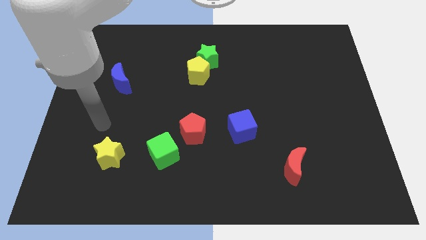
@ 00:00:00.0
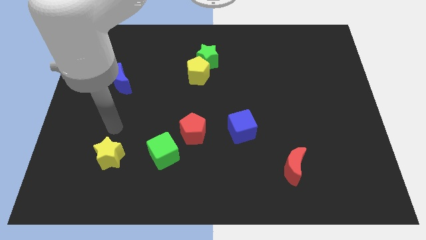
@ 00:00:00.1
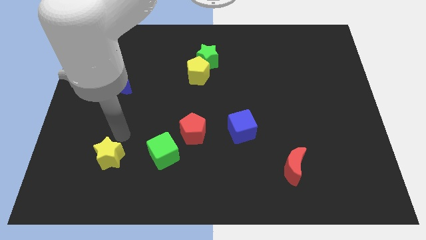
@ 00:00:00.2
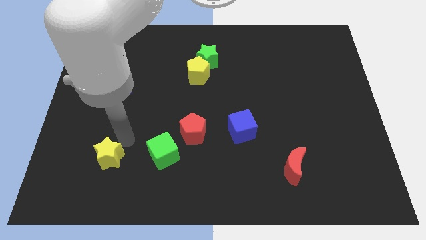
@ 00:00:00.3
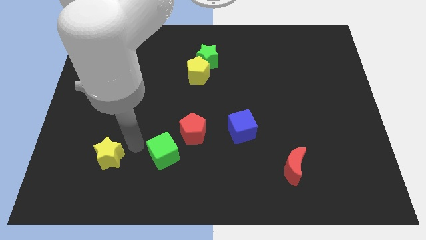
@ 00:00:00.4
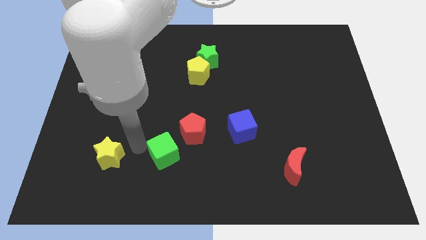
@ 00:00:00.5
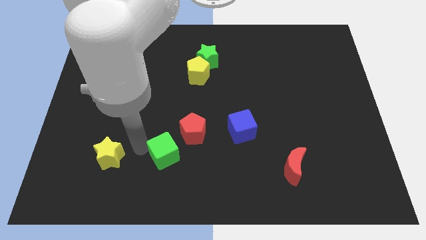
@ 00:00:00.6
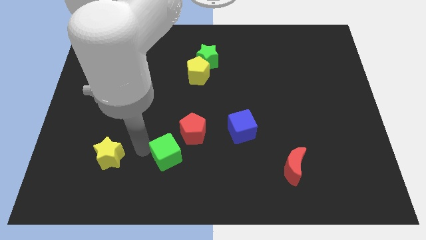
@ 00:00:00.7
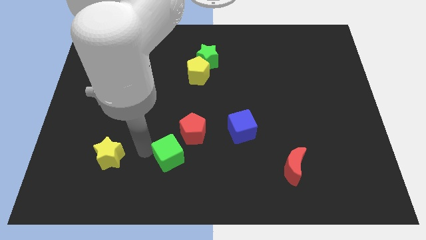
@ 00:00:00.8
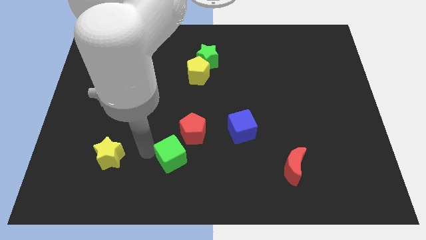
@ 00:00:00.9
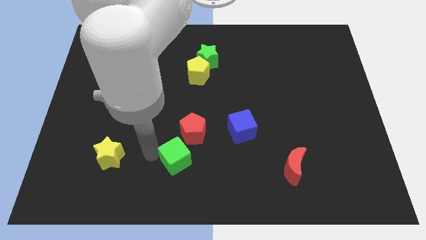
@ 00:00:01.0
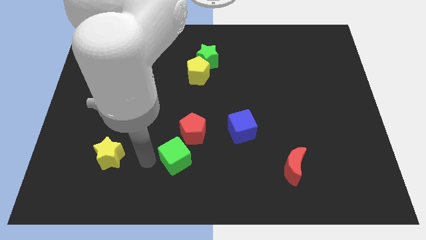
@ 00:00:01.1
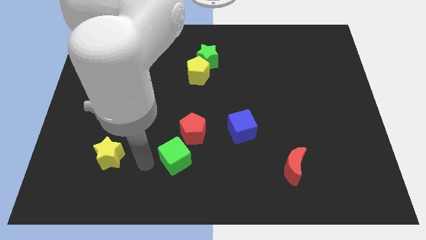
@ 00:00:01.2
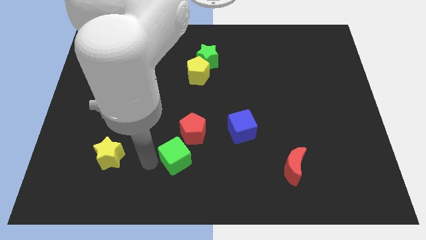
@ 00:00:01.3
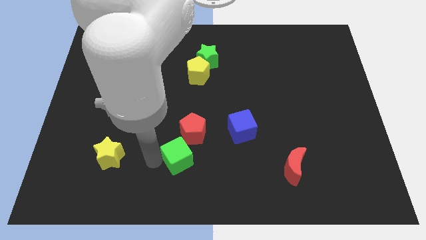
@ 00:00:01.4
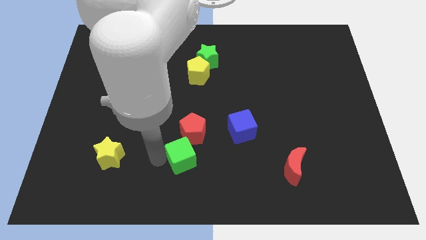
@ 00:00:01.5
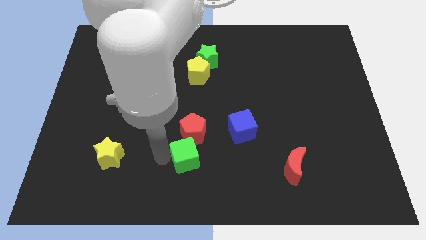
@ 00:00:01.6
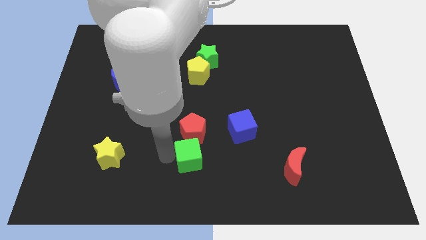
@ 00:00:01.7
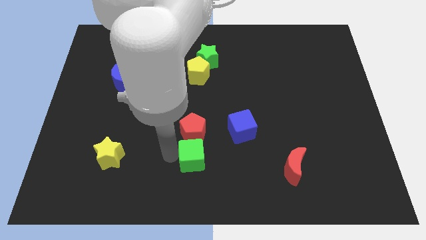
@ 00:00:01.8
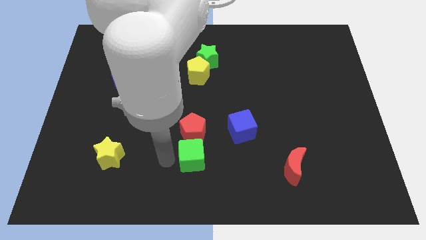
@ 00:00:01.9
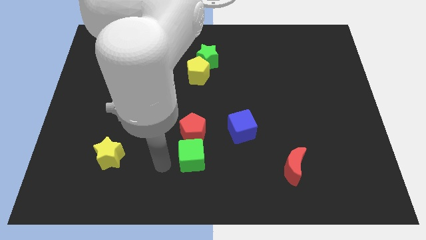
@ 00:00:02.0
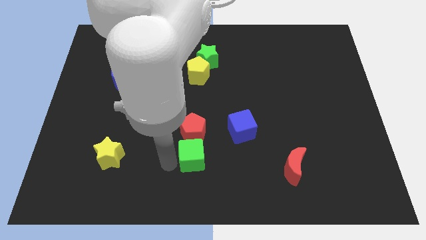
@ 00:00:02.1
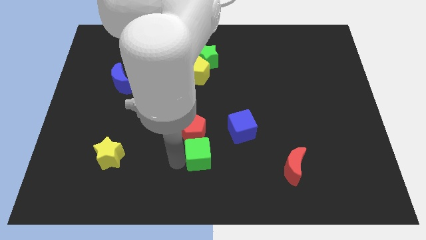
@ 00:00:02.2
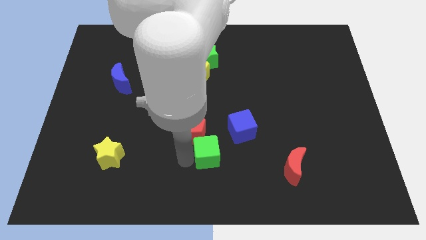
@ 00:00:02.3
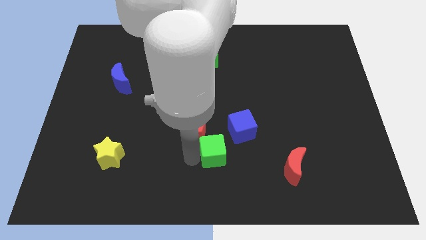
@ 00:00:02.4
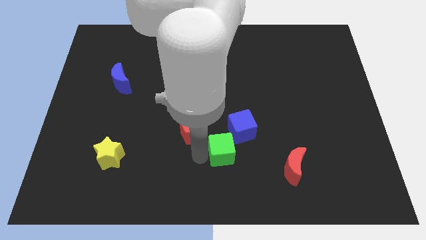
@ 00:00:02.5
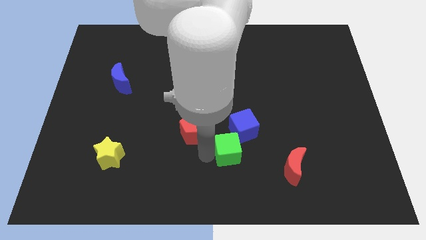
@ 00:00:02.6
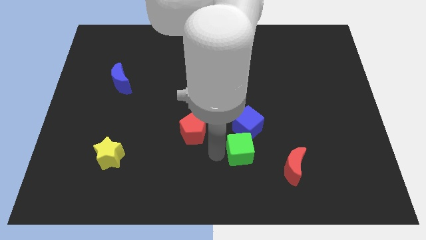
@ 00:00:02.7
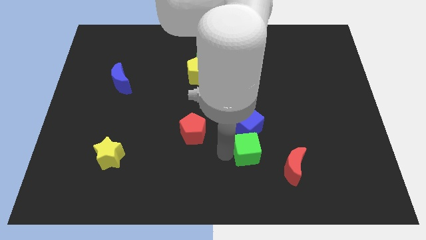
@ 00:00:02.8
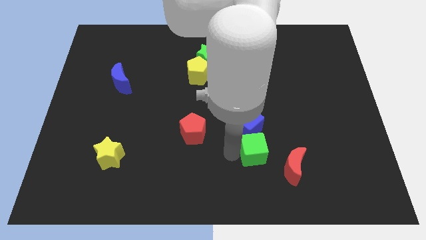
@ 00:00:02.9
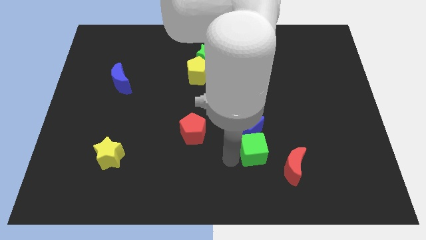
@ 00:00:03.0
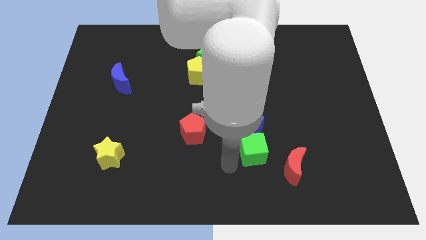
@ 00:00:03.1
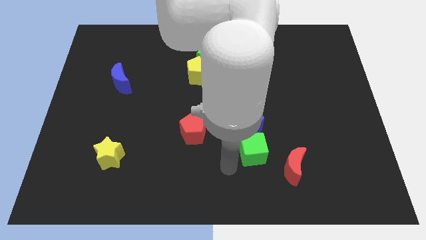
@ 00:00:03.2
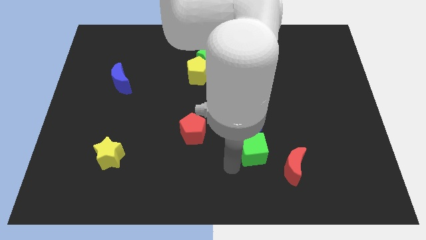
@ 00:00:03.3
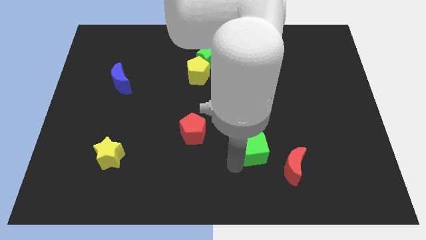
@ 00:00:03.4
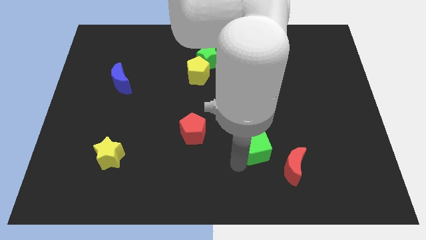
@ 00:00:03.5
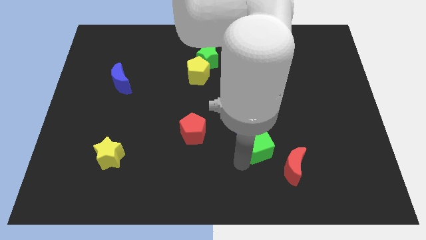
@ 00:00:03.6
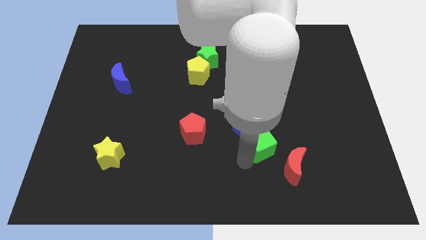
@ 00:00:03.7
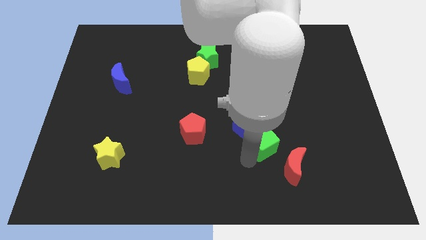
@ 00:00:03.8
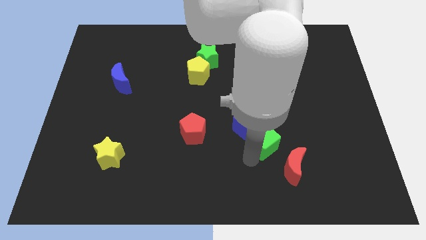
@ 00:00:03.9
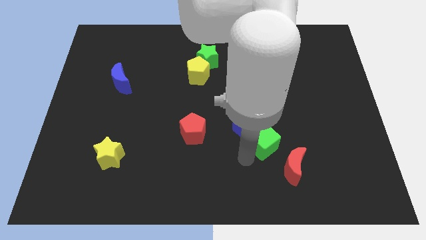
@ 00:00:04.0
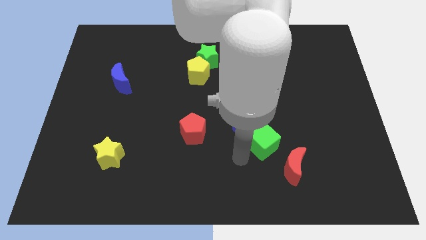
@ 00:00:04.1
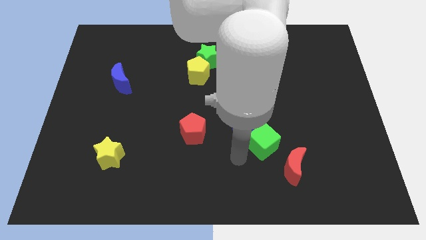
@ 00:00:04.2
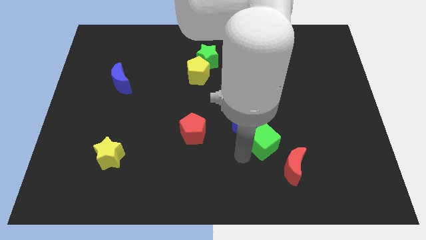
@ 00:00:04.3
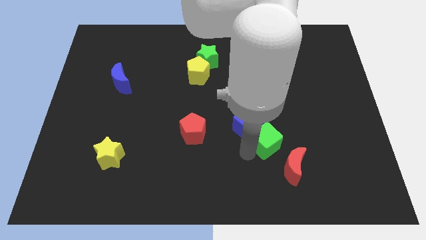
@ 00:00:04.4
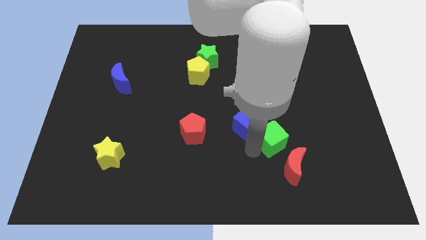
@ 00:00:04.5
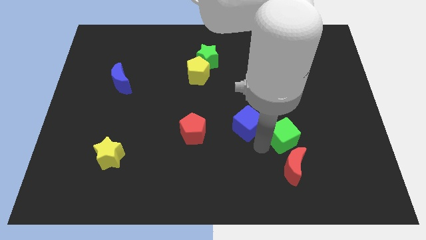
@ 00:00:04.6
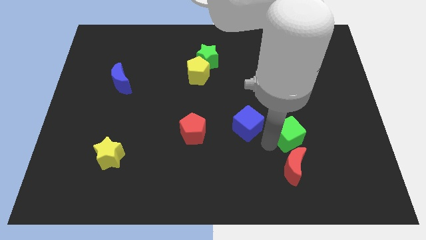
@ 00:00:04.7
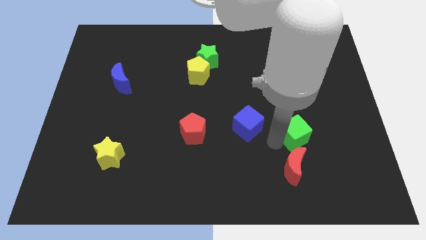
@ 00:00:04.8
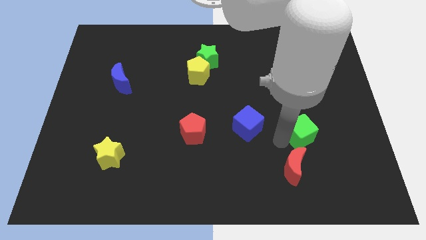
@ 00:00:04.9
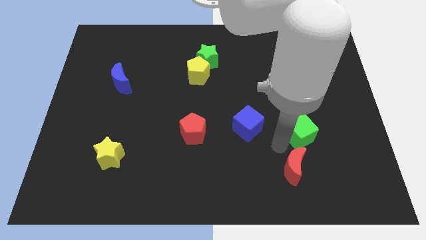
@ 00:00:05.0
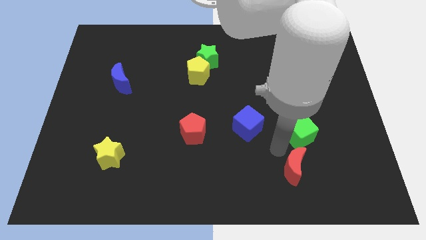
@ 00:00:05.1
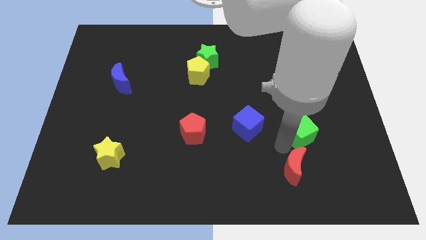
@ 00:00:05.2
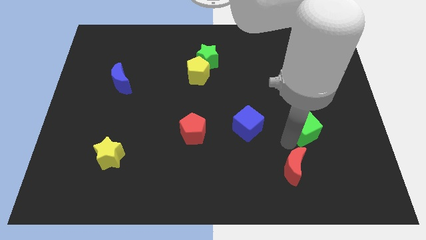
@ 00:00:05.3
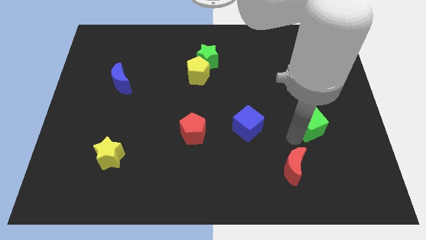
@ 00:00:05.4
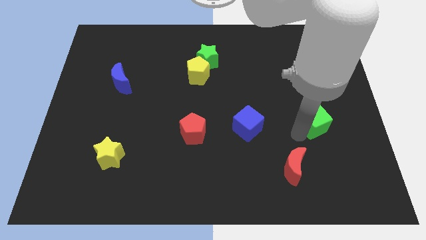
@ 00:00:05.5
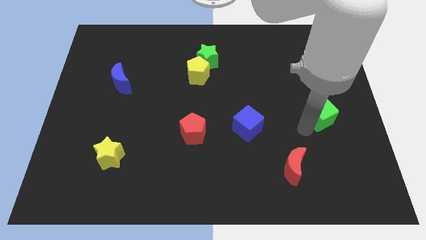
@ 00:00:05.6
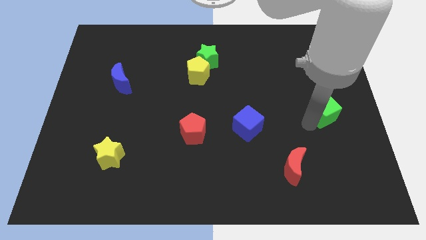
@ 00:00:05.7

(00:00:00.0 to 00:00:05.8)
slide the green cube to the right side

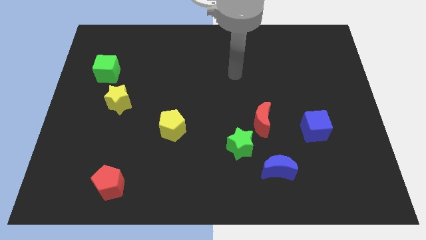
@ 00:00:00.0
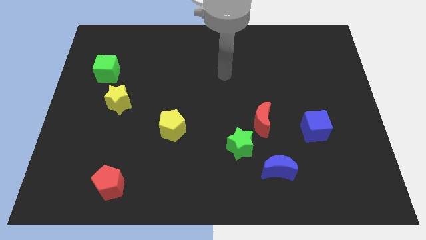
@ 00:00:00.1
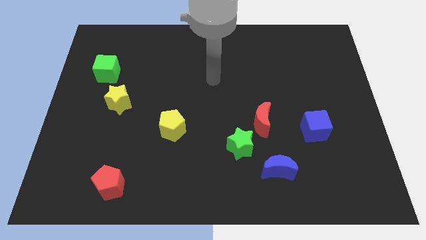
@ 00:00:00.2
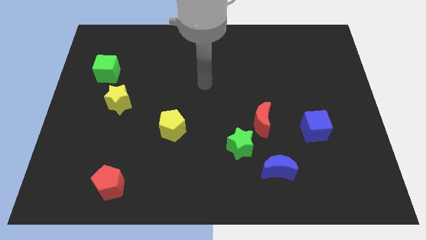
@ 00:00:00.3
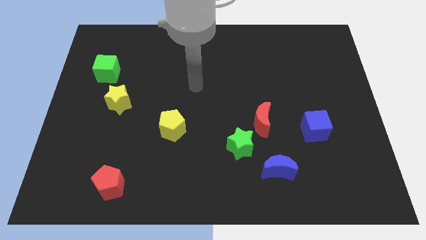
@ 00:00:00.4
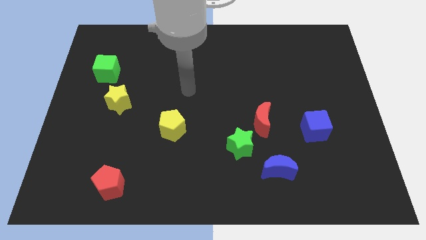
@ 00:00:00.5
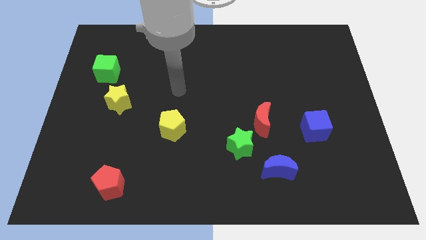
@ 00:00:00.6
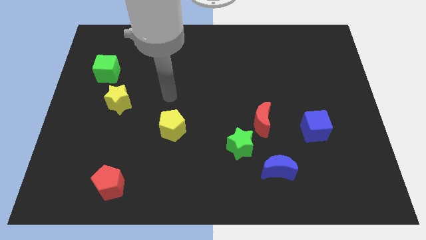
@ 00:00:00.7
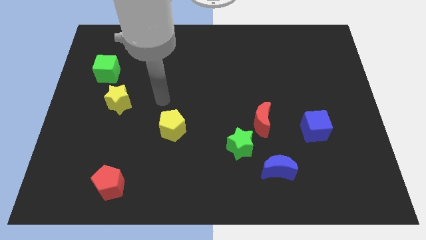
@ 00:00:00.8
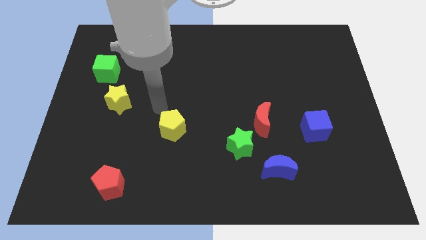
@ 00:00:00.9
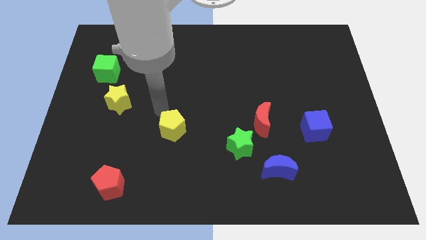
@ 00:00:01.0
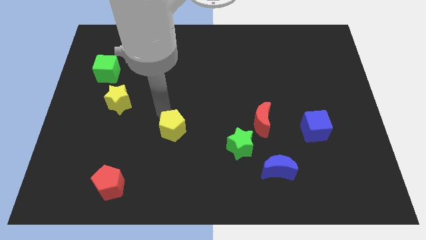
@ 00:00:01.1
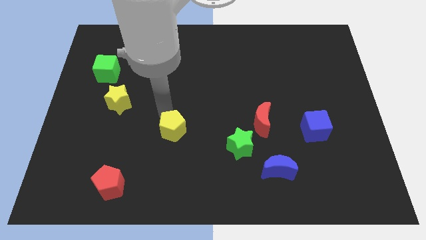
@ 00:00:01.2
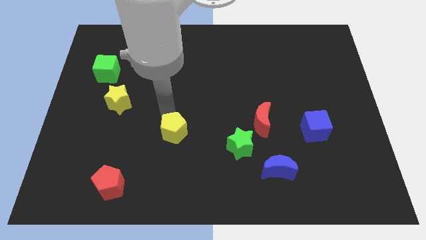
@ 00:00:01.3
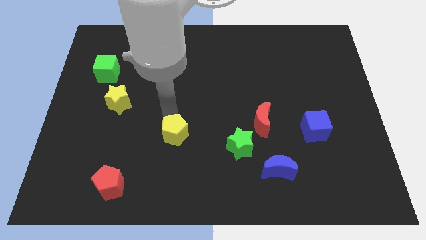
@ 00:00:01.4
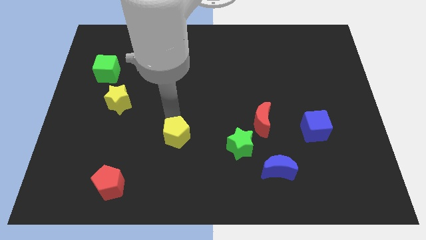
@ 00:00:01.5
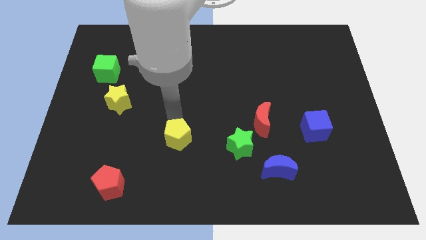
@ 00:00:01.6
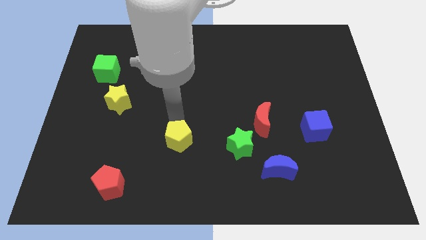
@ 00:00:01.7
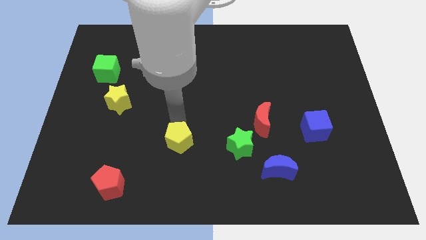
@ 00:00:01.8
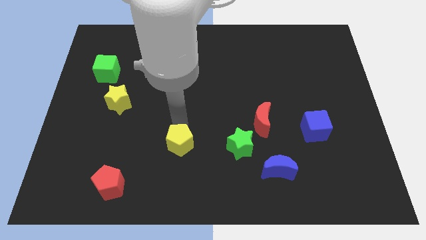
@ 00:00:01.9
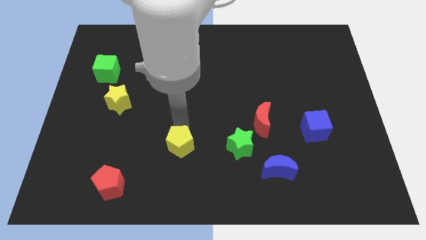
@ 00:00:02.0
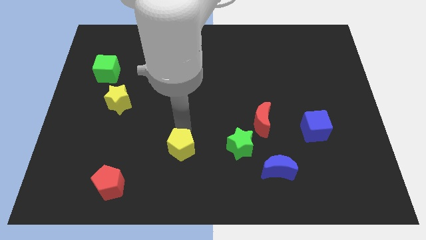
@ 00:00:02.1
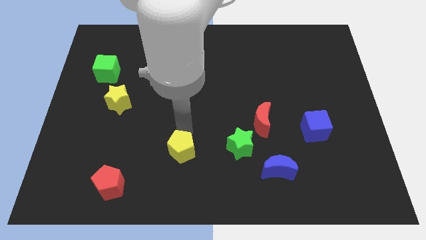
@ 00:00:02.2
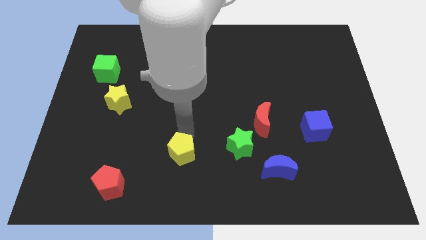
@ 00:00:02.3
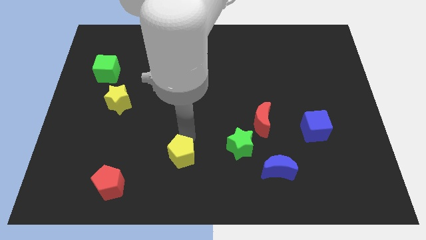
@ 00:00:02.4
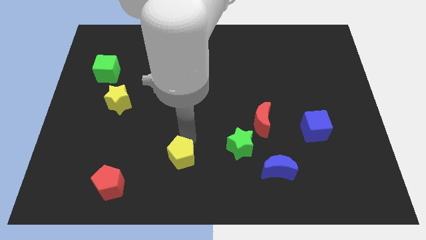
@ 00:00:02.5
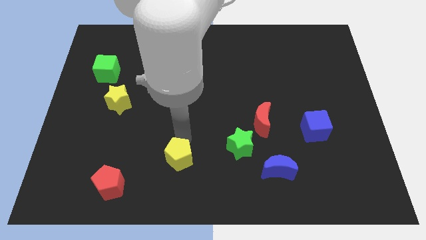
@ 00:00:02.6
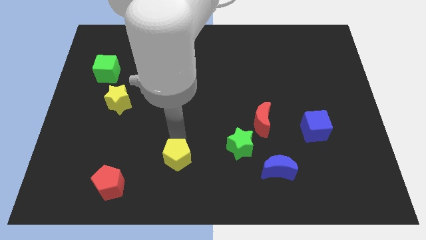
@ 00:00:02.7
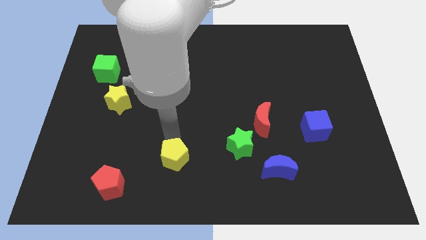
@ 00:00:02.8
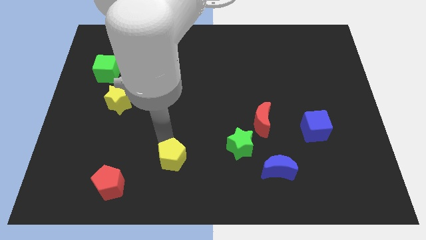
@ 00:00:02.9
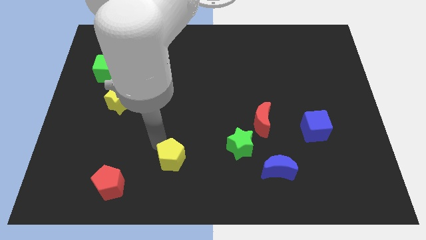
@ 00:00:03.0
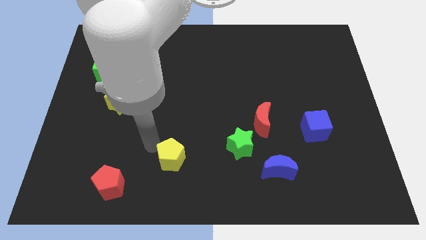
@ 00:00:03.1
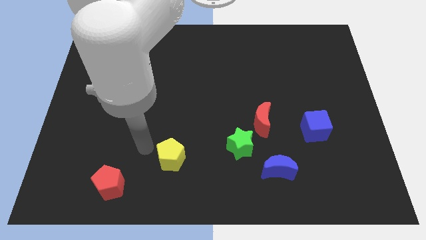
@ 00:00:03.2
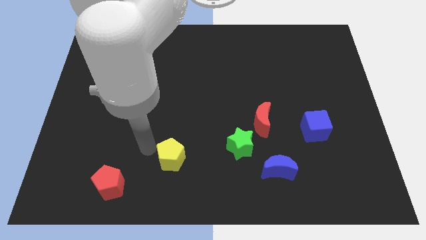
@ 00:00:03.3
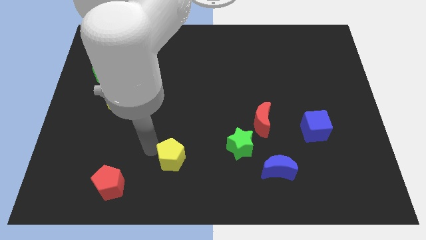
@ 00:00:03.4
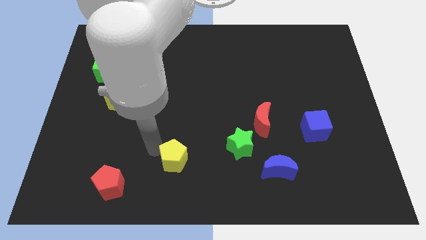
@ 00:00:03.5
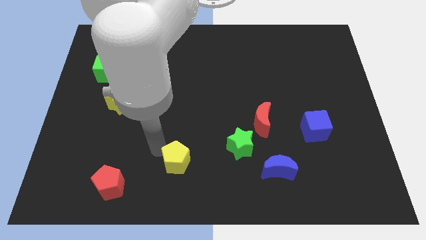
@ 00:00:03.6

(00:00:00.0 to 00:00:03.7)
slide the yellow pentagon to the bottom side
